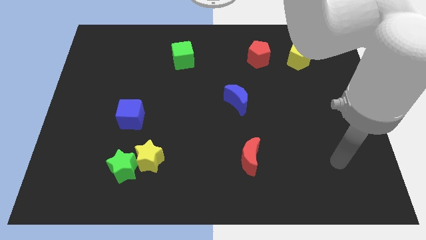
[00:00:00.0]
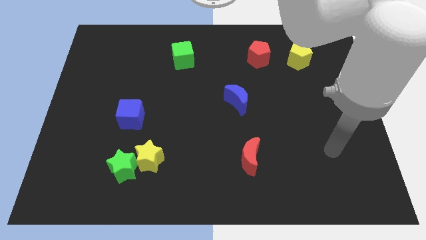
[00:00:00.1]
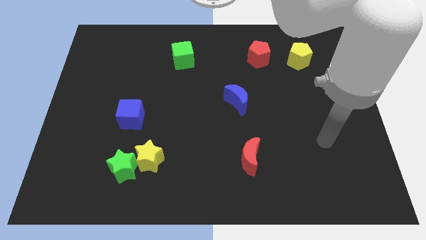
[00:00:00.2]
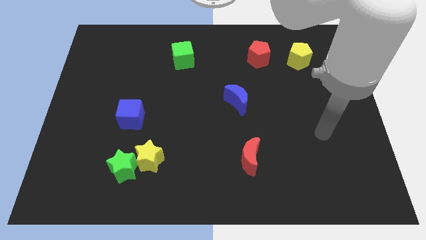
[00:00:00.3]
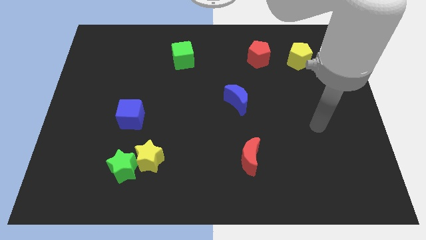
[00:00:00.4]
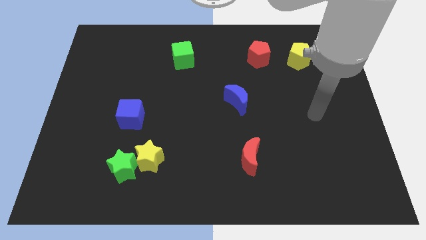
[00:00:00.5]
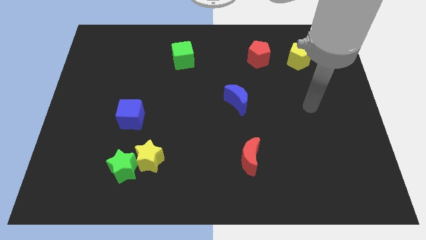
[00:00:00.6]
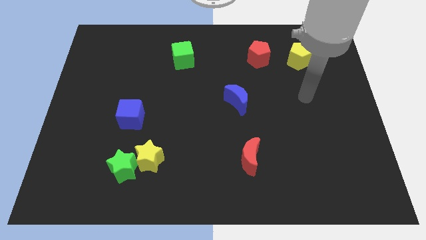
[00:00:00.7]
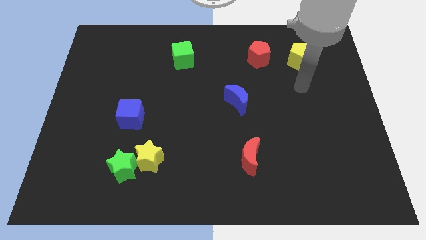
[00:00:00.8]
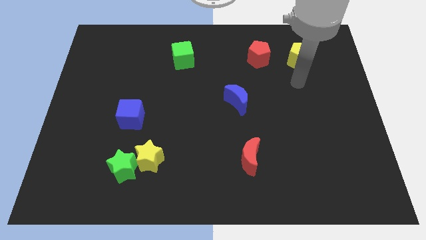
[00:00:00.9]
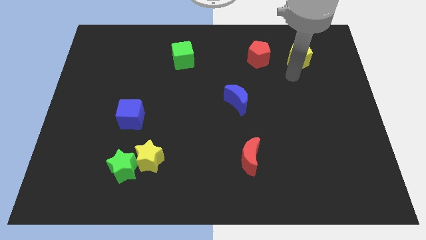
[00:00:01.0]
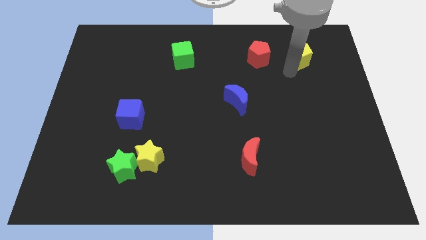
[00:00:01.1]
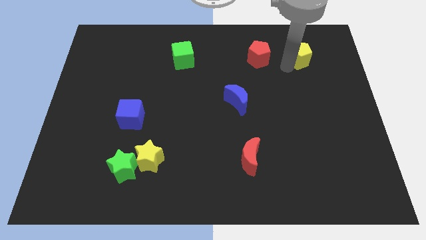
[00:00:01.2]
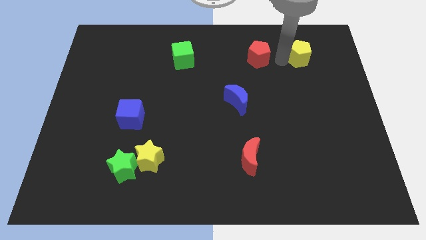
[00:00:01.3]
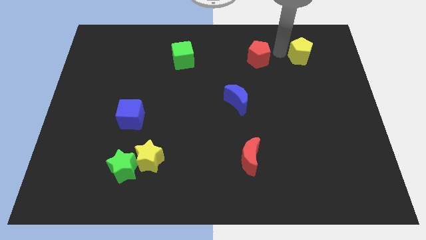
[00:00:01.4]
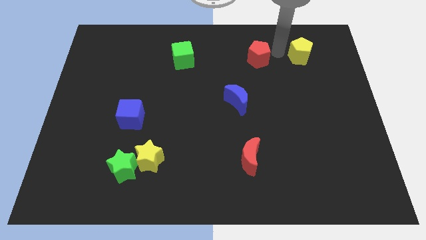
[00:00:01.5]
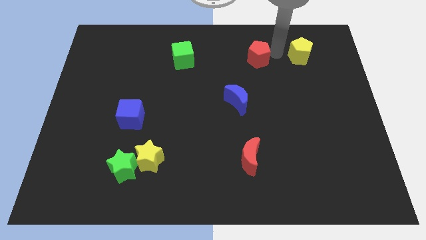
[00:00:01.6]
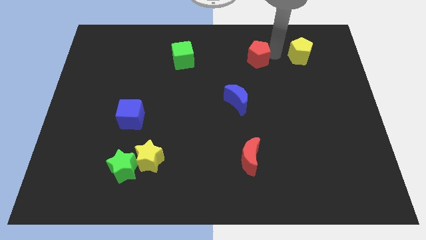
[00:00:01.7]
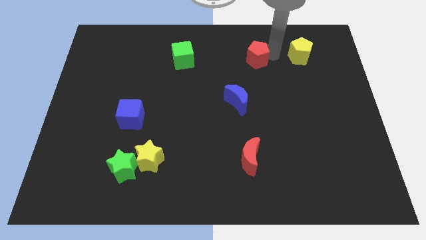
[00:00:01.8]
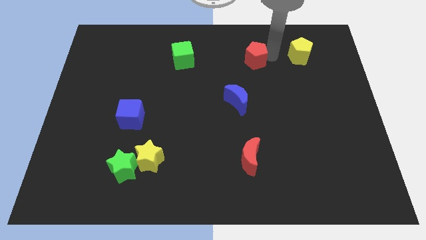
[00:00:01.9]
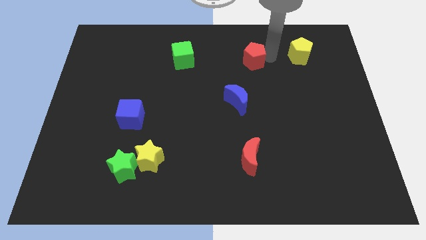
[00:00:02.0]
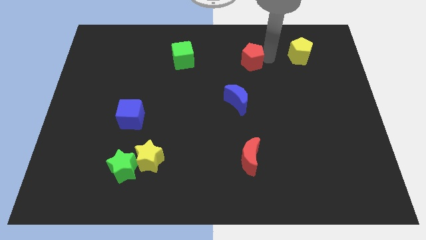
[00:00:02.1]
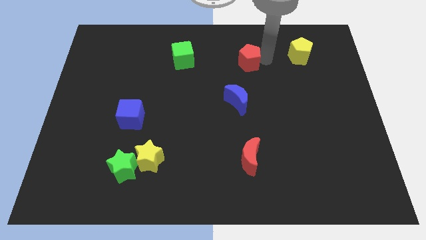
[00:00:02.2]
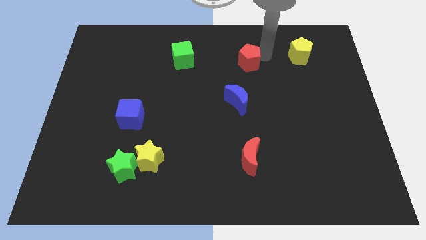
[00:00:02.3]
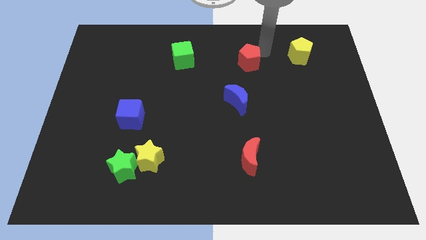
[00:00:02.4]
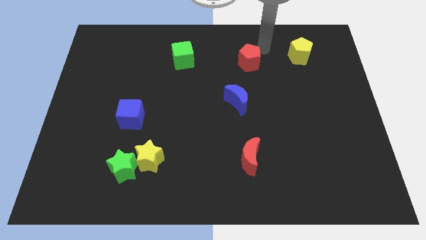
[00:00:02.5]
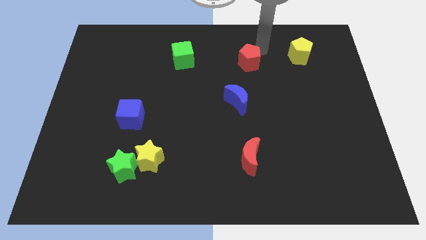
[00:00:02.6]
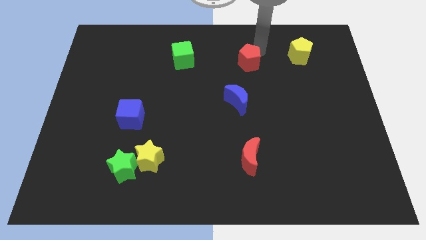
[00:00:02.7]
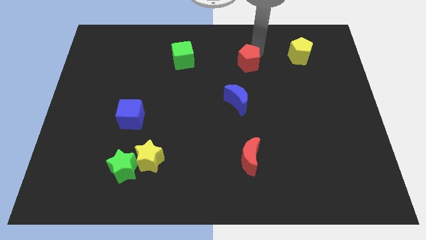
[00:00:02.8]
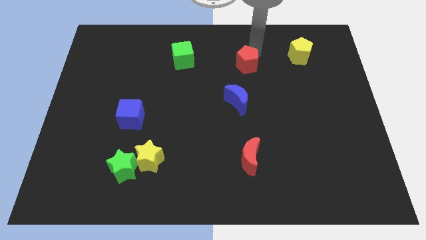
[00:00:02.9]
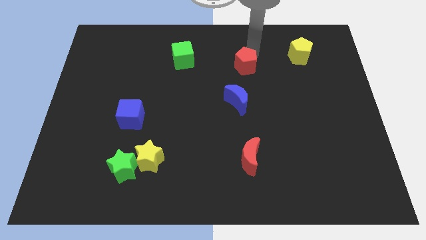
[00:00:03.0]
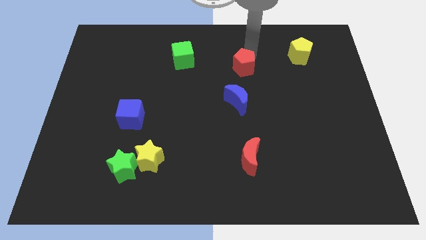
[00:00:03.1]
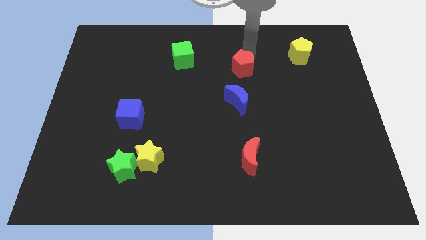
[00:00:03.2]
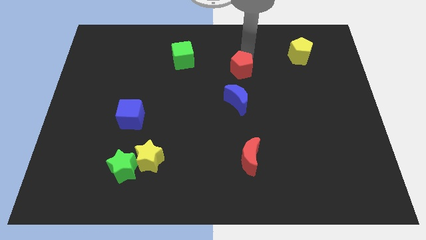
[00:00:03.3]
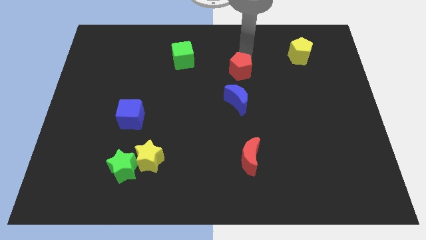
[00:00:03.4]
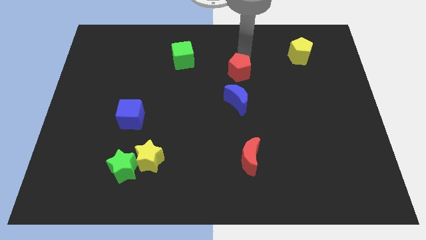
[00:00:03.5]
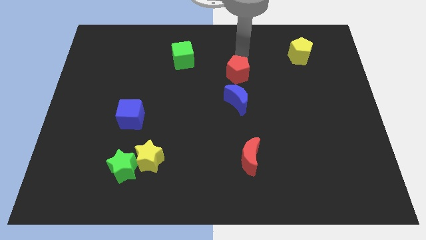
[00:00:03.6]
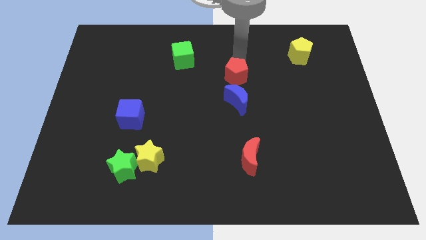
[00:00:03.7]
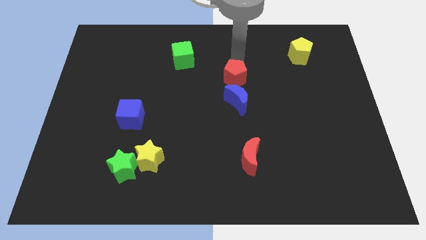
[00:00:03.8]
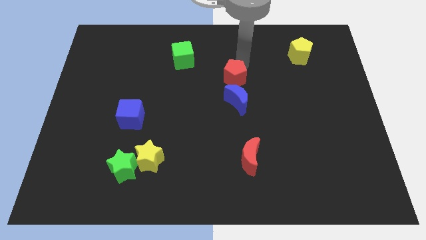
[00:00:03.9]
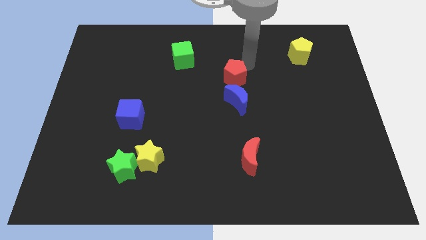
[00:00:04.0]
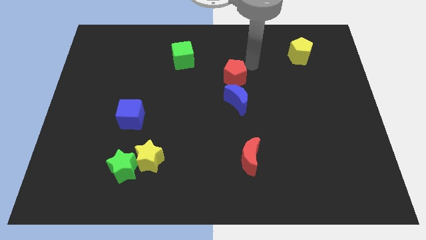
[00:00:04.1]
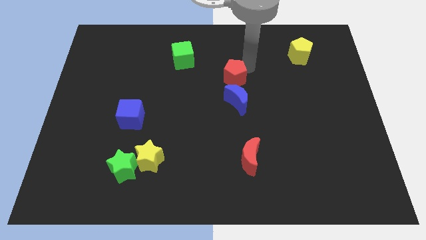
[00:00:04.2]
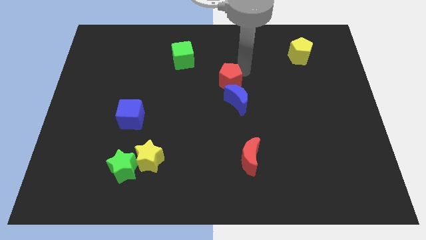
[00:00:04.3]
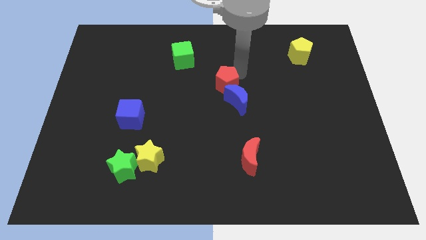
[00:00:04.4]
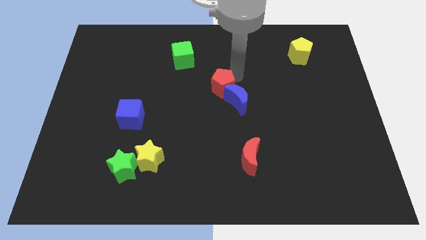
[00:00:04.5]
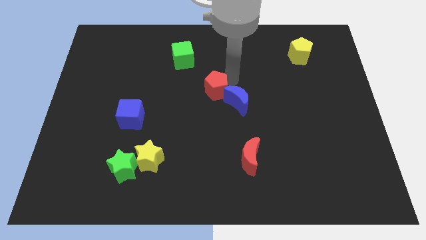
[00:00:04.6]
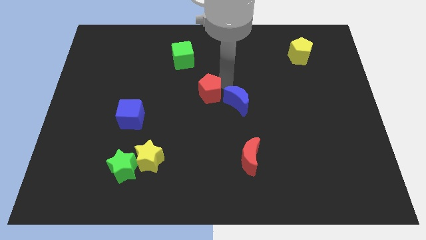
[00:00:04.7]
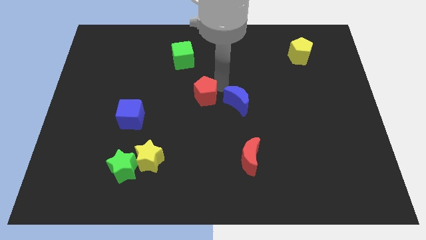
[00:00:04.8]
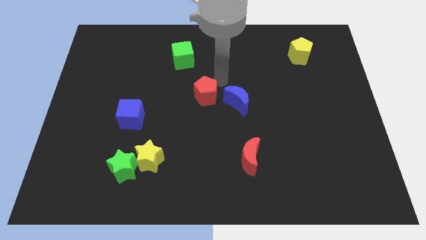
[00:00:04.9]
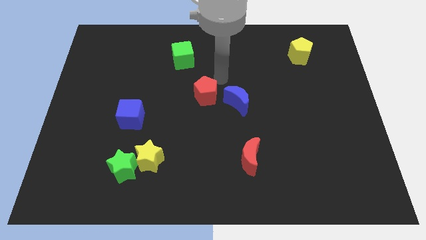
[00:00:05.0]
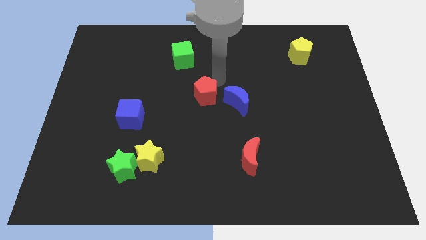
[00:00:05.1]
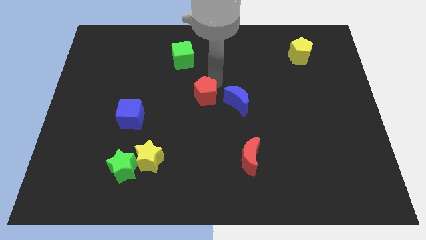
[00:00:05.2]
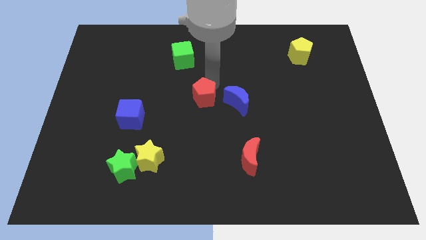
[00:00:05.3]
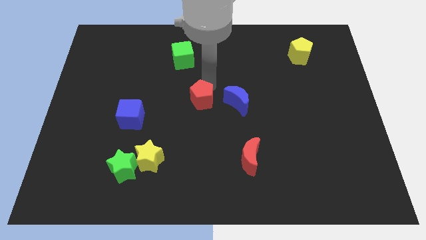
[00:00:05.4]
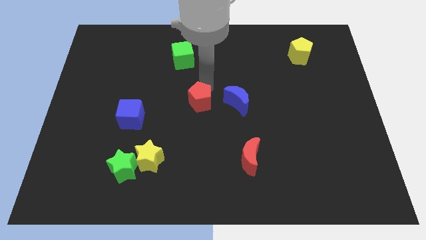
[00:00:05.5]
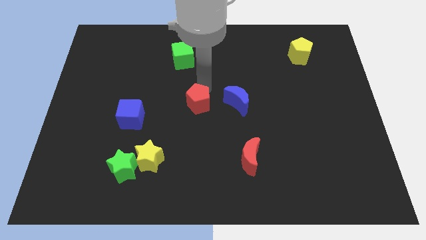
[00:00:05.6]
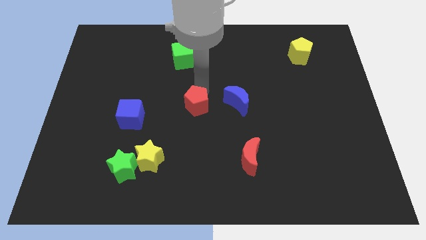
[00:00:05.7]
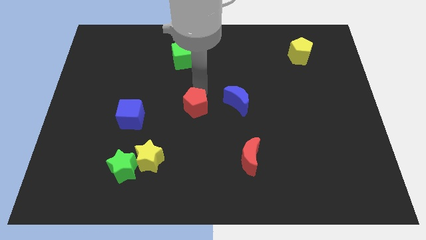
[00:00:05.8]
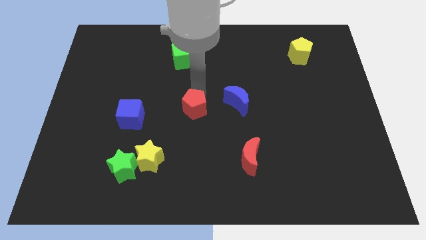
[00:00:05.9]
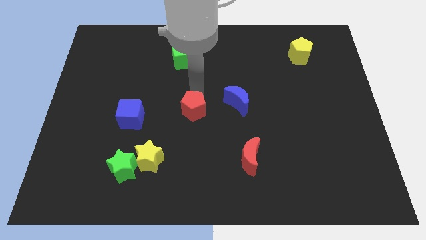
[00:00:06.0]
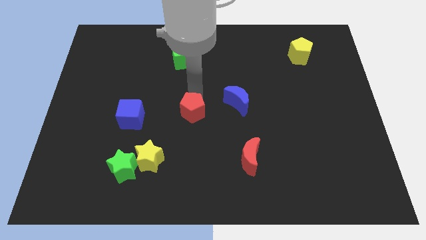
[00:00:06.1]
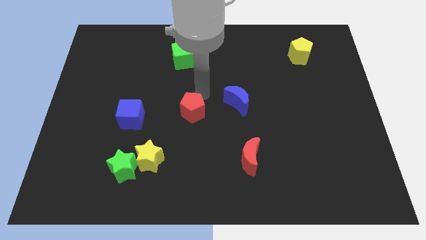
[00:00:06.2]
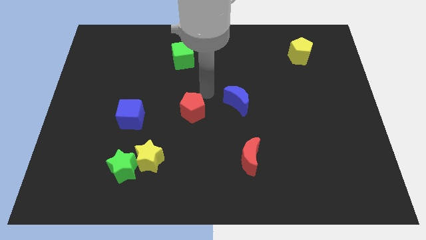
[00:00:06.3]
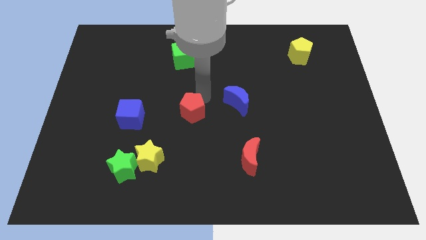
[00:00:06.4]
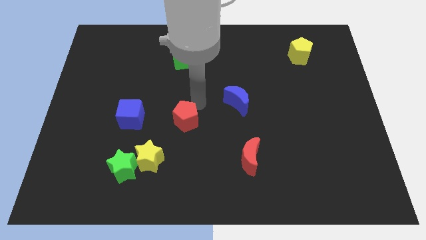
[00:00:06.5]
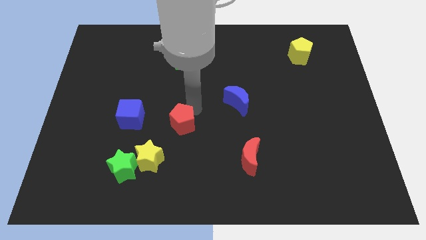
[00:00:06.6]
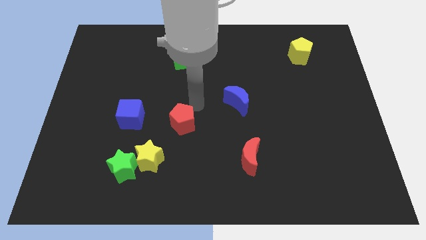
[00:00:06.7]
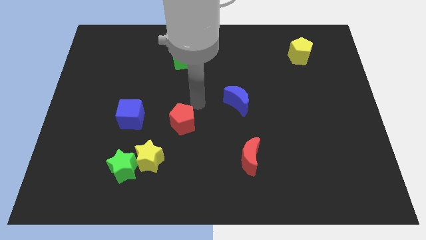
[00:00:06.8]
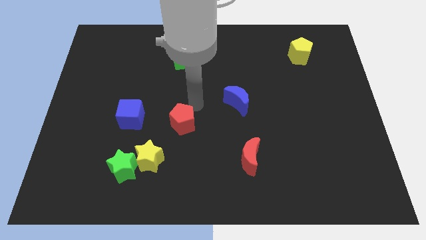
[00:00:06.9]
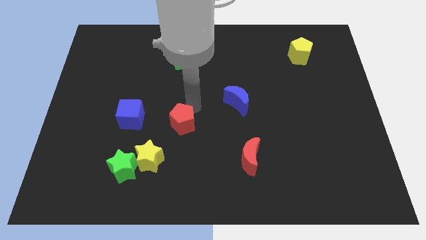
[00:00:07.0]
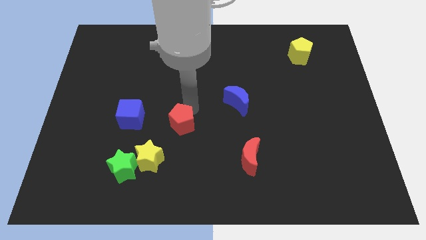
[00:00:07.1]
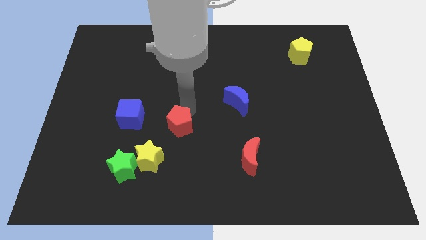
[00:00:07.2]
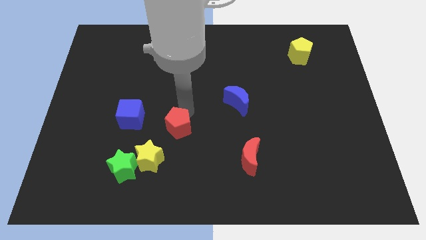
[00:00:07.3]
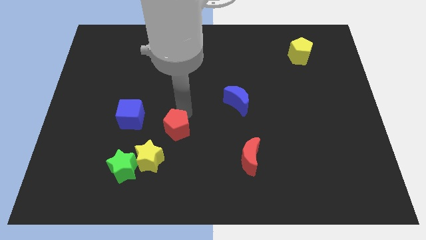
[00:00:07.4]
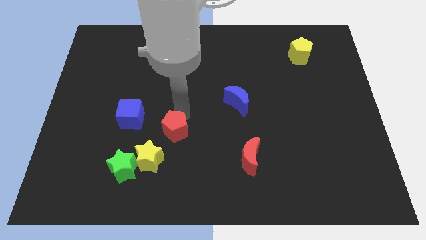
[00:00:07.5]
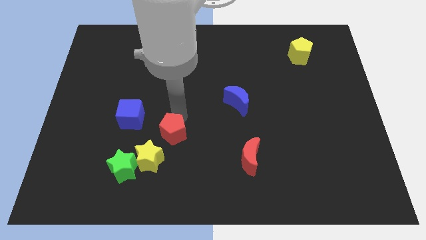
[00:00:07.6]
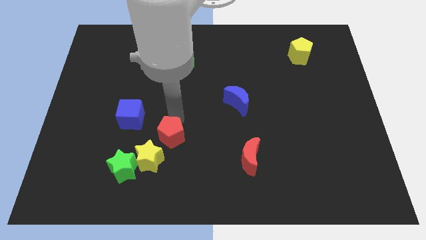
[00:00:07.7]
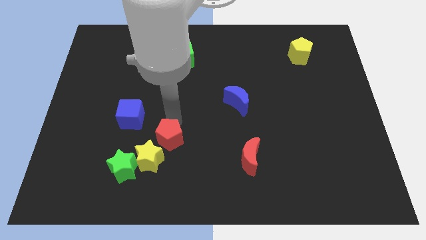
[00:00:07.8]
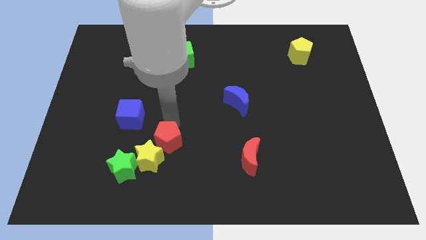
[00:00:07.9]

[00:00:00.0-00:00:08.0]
put the red pentagon to the yellow star
